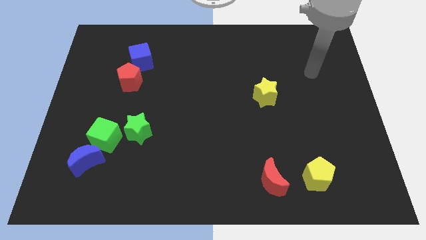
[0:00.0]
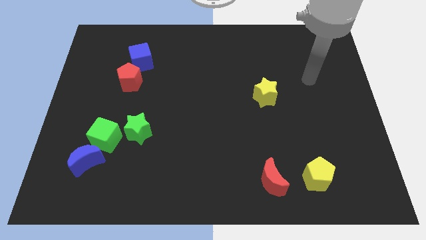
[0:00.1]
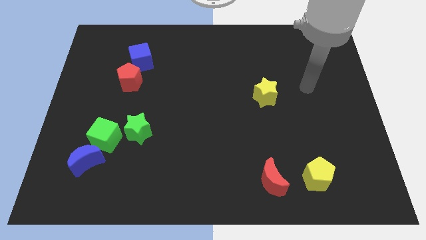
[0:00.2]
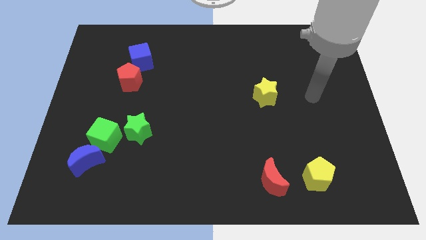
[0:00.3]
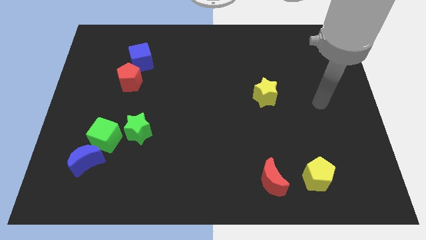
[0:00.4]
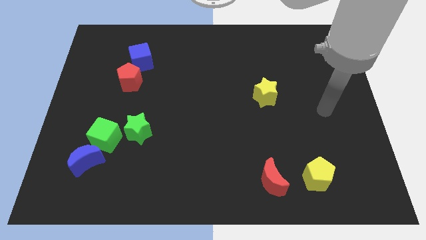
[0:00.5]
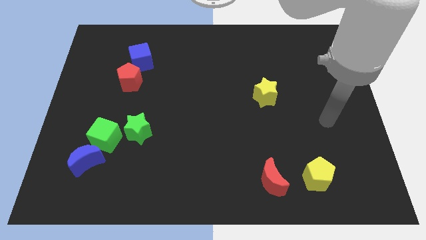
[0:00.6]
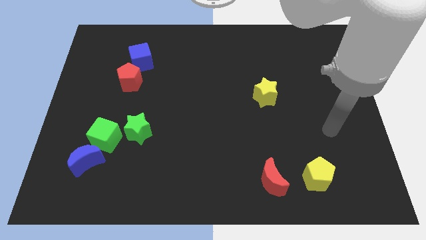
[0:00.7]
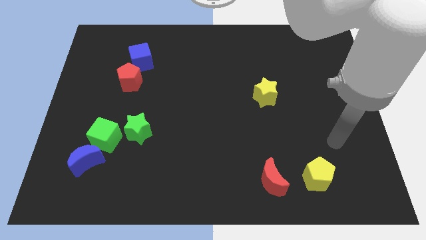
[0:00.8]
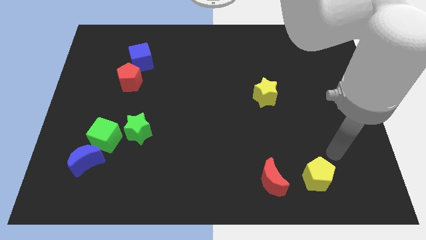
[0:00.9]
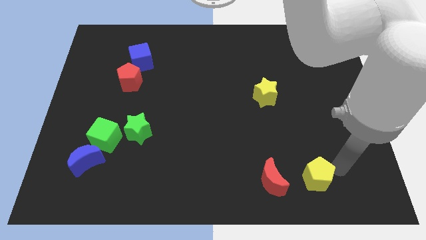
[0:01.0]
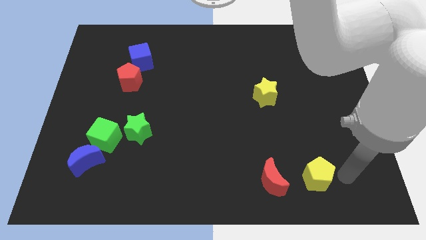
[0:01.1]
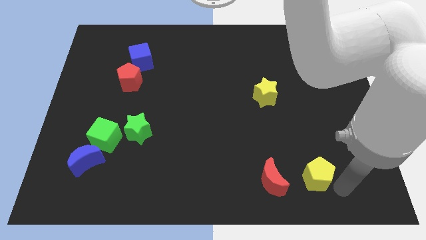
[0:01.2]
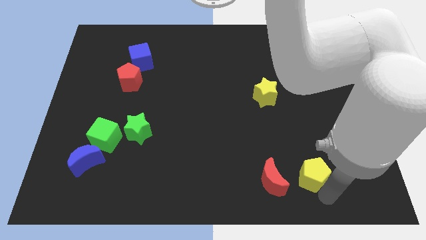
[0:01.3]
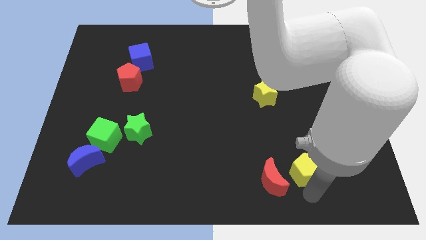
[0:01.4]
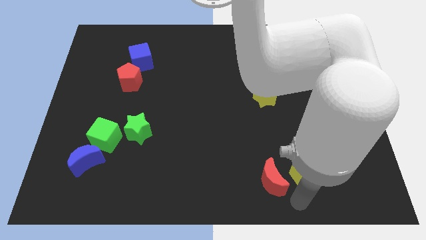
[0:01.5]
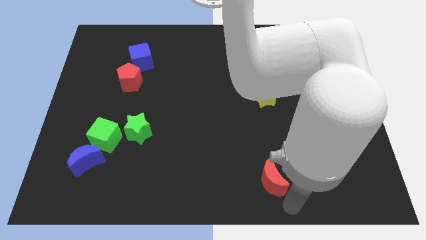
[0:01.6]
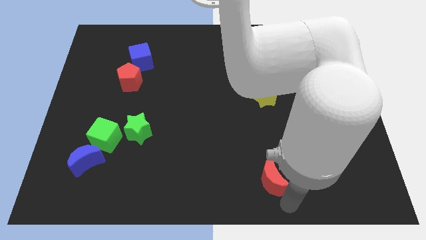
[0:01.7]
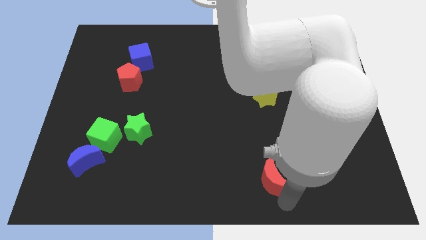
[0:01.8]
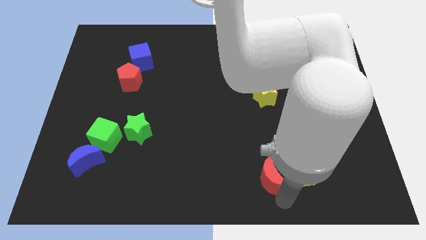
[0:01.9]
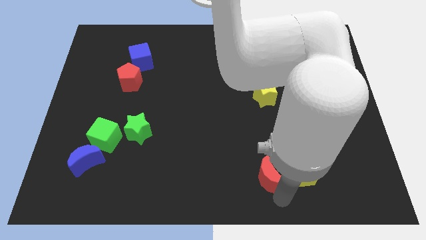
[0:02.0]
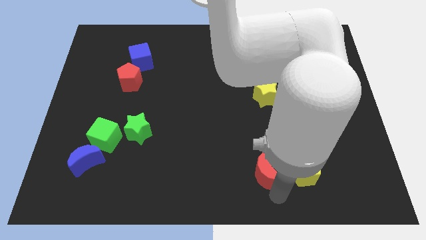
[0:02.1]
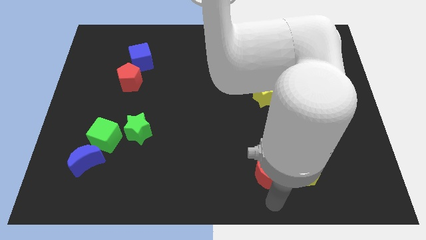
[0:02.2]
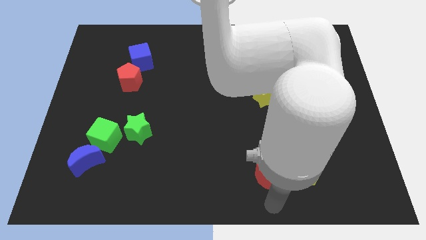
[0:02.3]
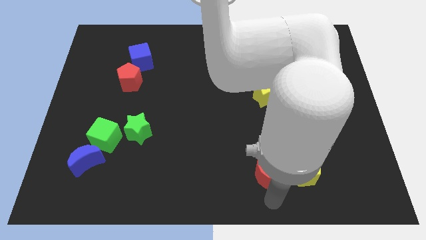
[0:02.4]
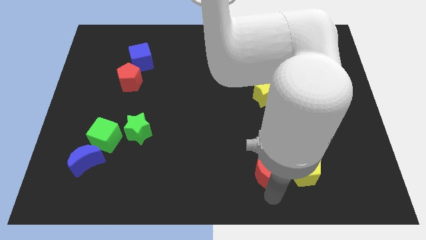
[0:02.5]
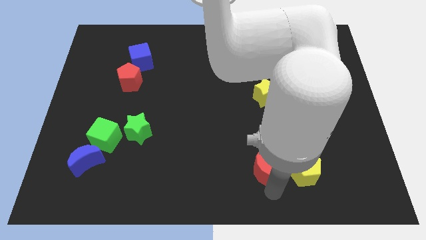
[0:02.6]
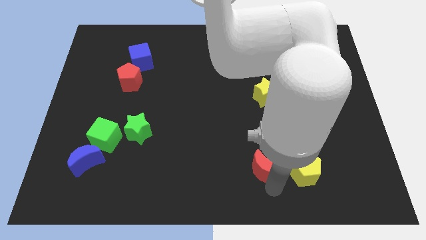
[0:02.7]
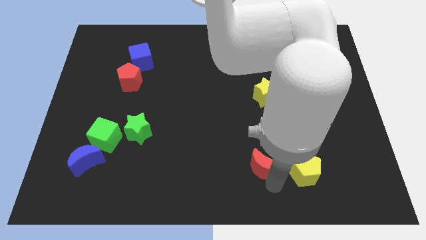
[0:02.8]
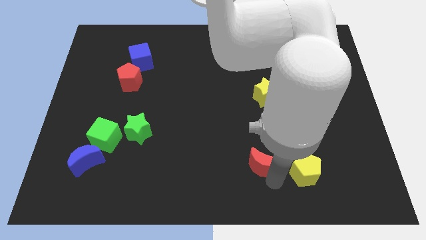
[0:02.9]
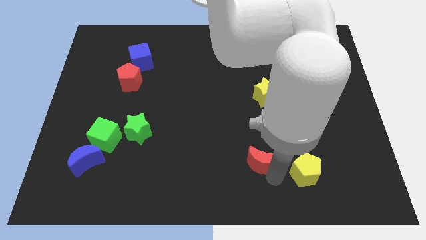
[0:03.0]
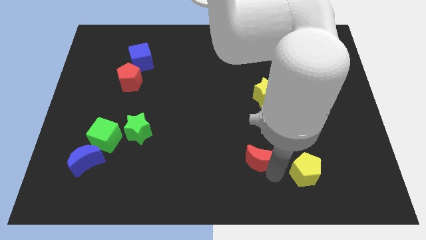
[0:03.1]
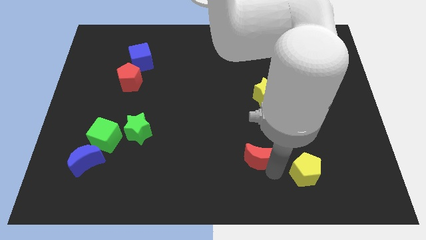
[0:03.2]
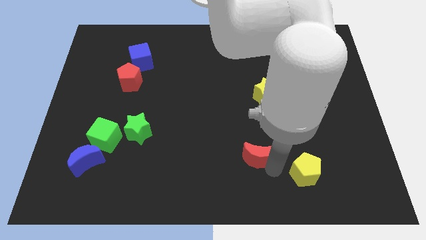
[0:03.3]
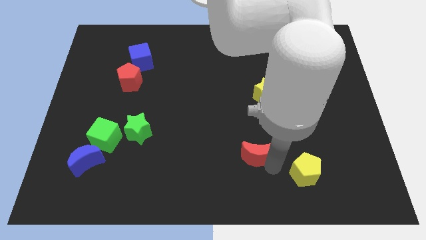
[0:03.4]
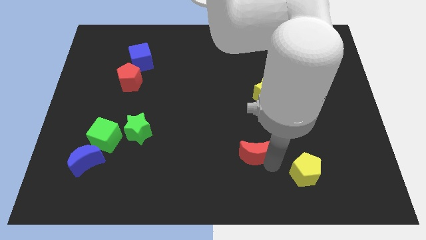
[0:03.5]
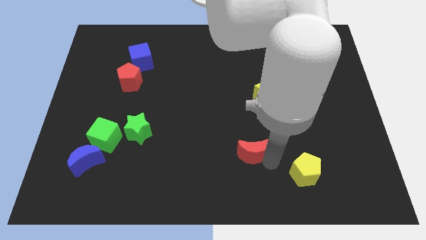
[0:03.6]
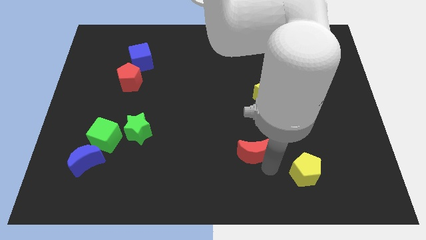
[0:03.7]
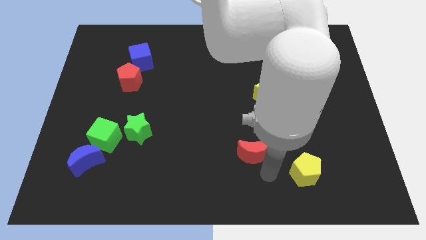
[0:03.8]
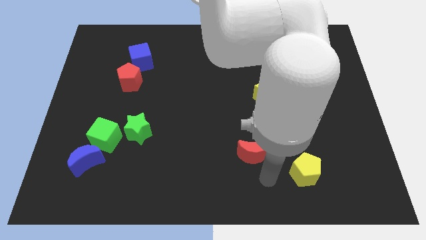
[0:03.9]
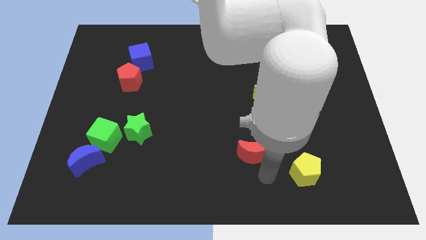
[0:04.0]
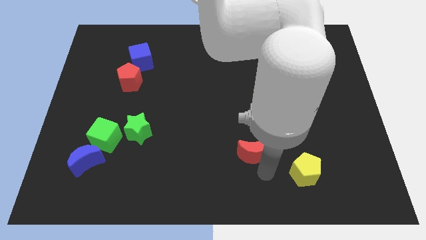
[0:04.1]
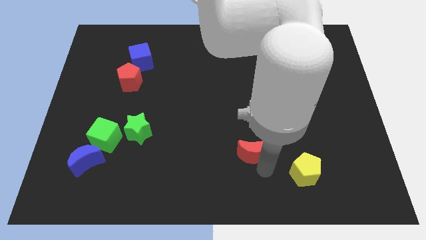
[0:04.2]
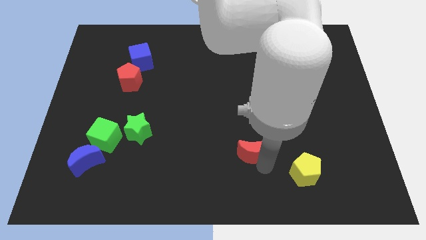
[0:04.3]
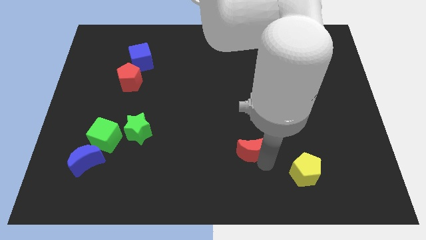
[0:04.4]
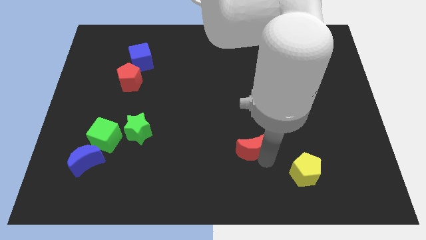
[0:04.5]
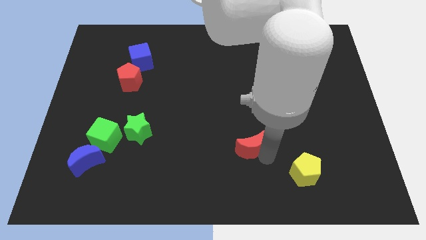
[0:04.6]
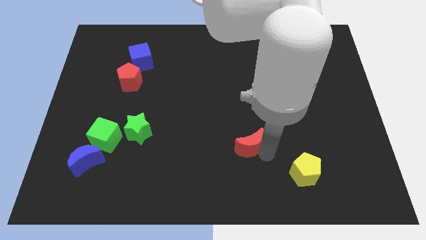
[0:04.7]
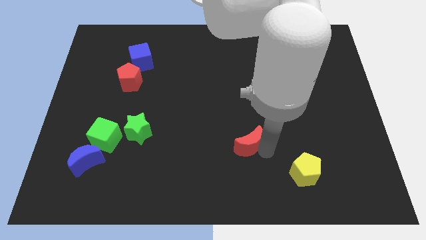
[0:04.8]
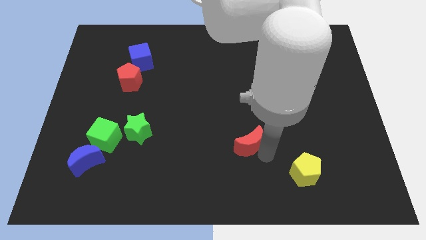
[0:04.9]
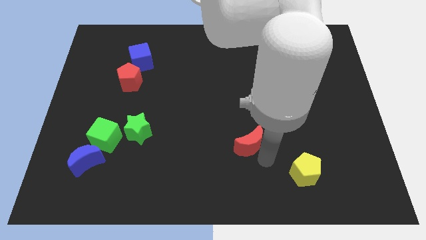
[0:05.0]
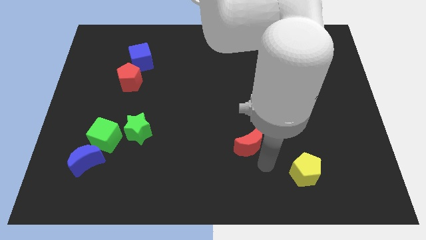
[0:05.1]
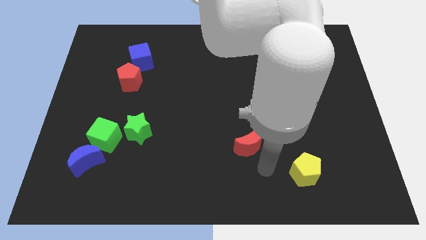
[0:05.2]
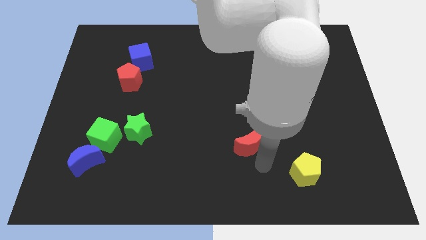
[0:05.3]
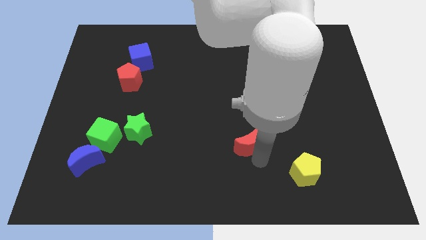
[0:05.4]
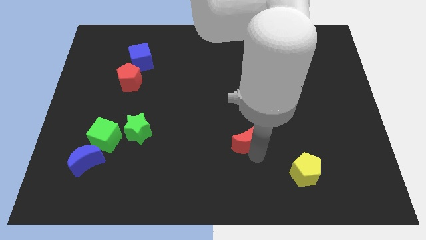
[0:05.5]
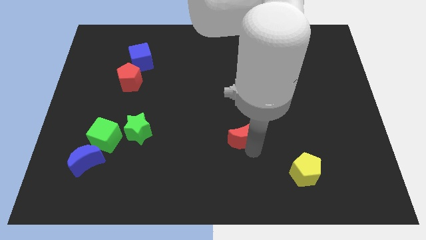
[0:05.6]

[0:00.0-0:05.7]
put the red moon to the middle of the board

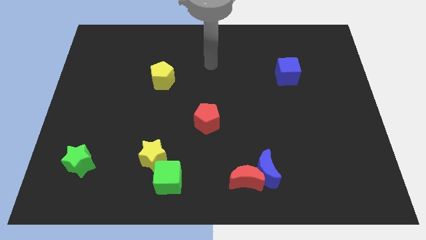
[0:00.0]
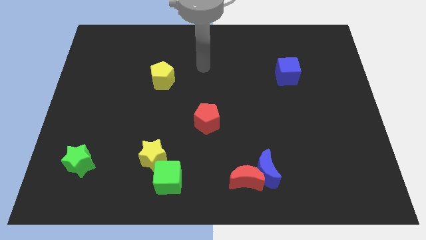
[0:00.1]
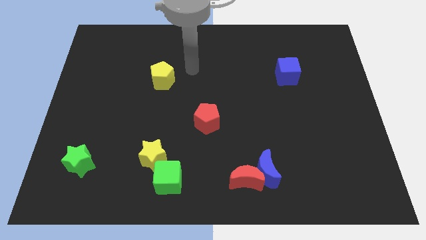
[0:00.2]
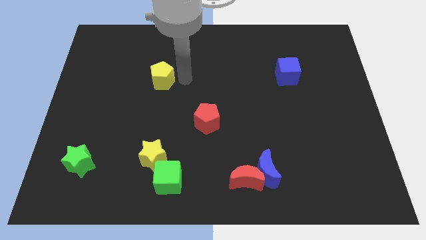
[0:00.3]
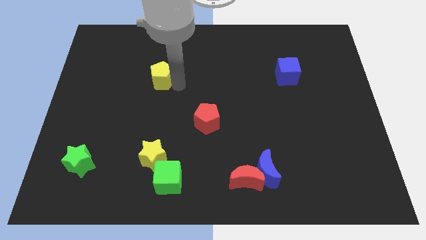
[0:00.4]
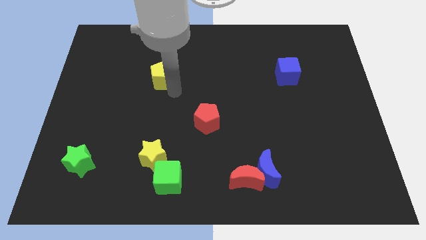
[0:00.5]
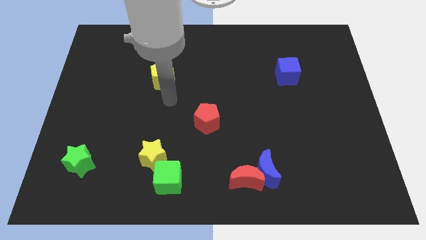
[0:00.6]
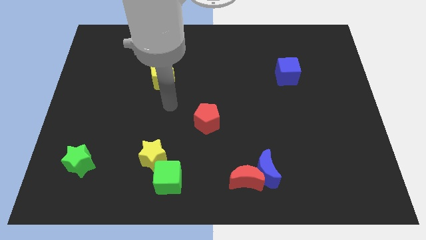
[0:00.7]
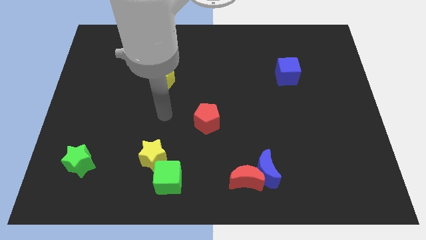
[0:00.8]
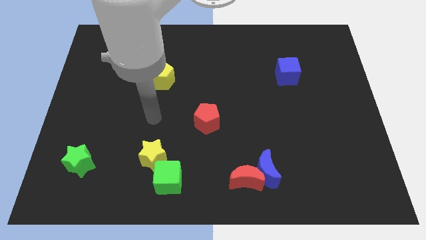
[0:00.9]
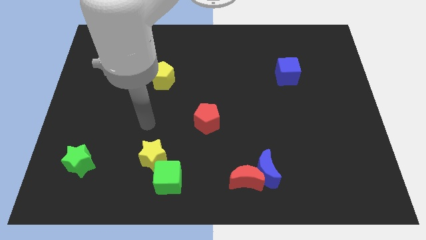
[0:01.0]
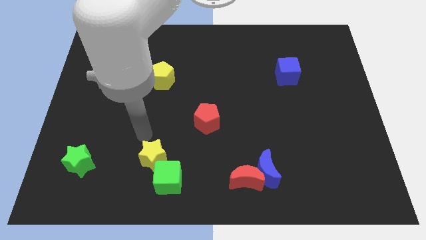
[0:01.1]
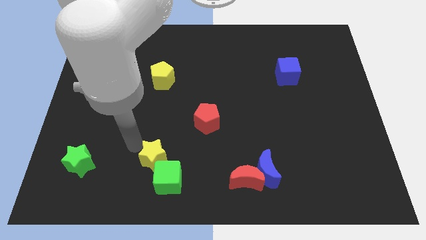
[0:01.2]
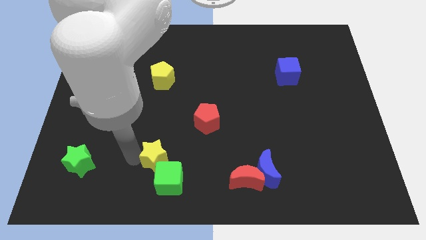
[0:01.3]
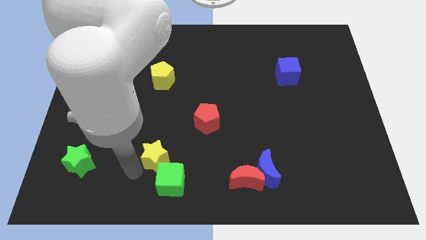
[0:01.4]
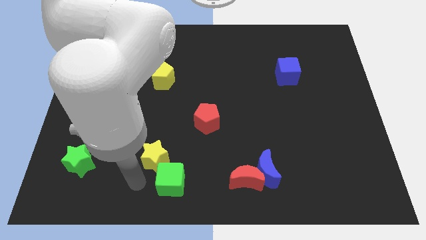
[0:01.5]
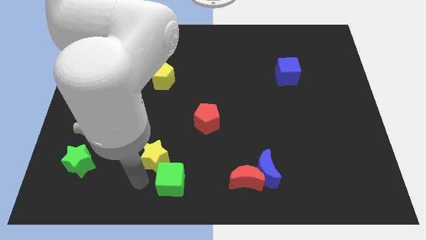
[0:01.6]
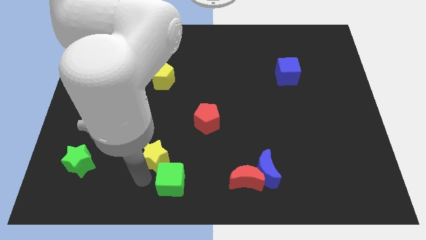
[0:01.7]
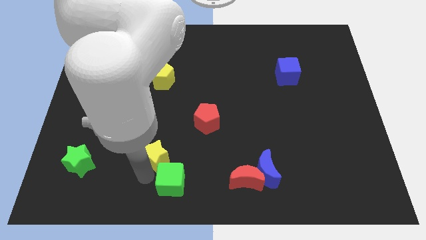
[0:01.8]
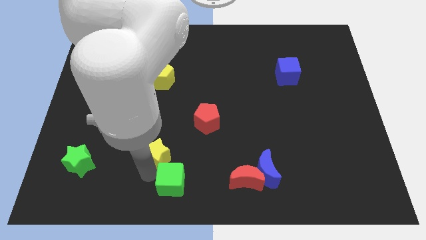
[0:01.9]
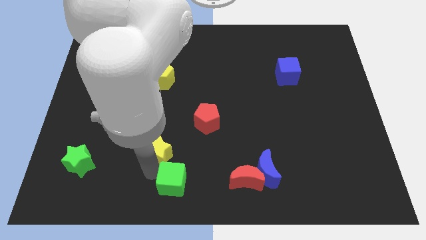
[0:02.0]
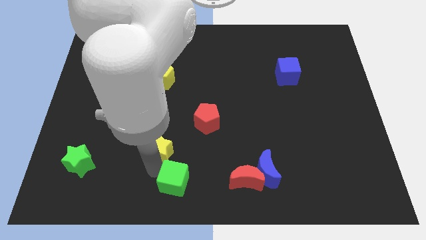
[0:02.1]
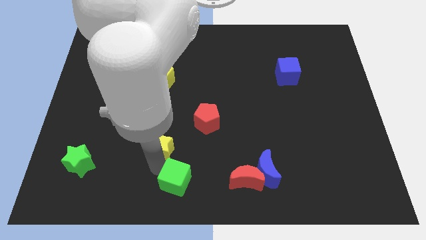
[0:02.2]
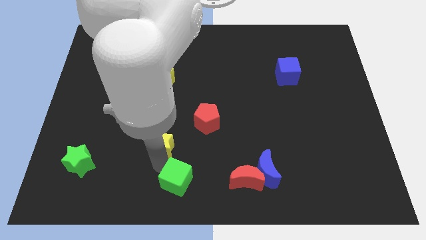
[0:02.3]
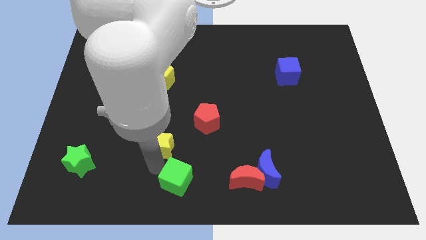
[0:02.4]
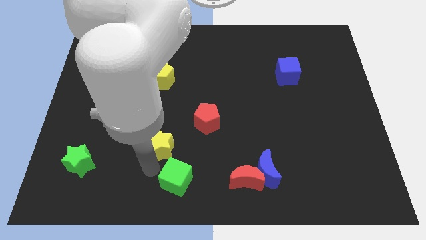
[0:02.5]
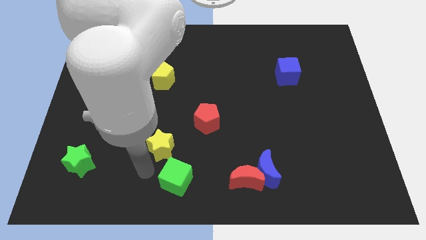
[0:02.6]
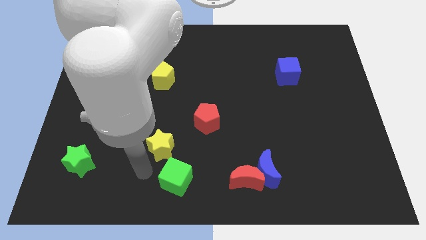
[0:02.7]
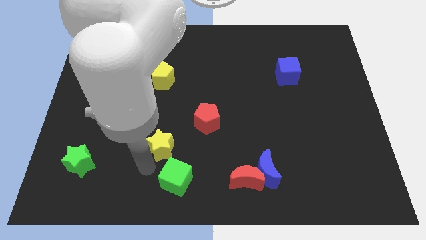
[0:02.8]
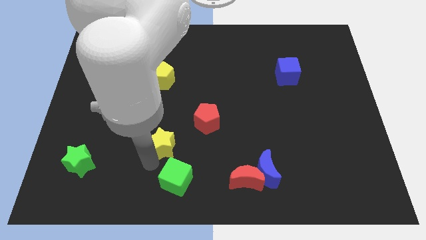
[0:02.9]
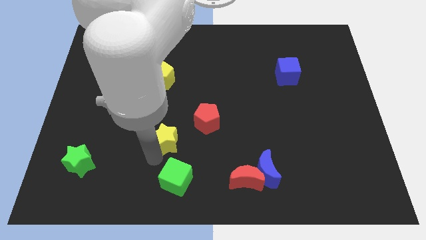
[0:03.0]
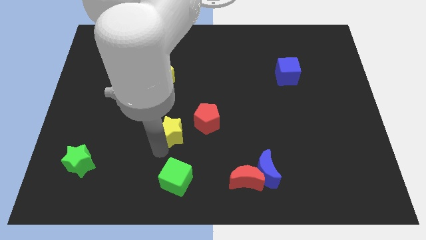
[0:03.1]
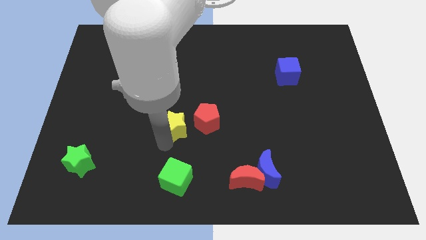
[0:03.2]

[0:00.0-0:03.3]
put the yellow star to the center of the board
